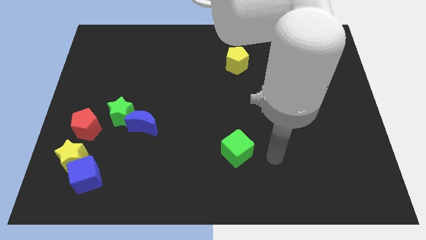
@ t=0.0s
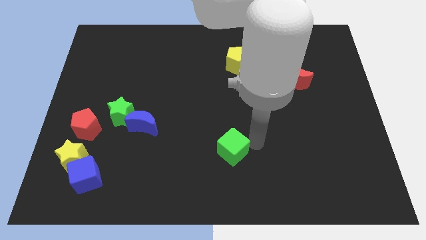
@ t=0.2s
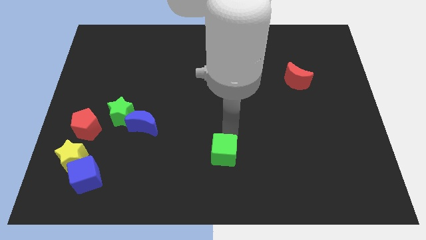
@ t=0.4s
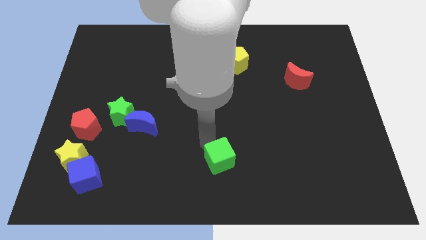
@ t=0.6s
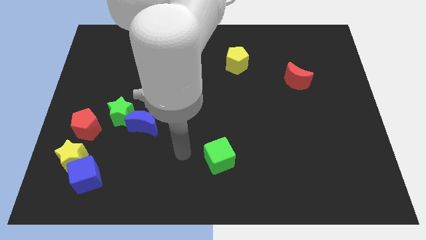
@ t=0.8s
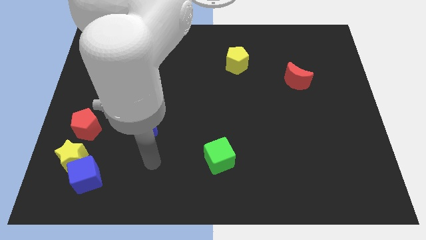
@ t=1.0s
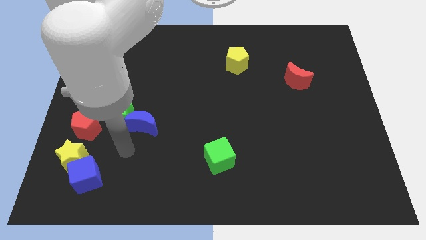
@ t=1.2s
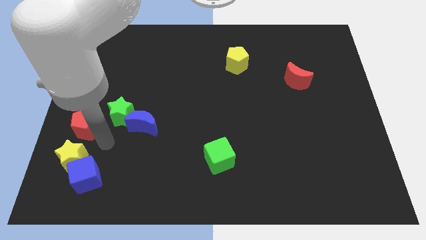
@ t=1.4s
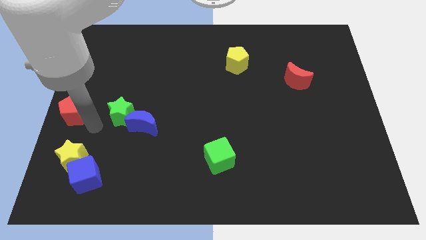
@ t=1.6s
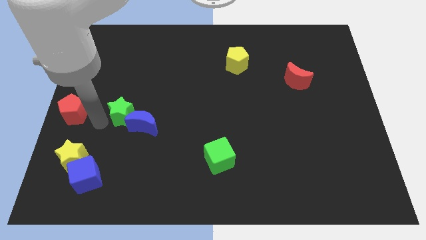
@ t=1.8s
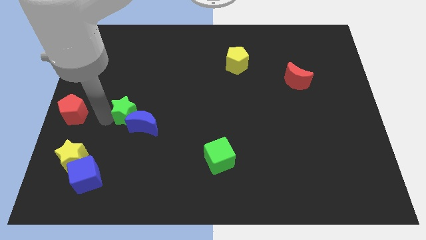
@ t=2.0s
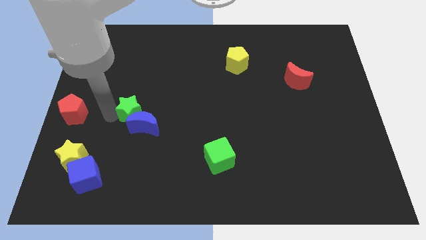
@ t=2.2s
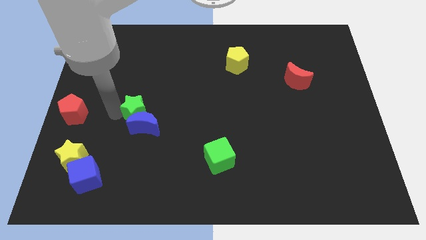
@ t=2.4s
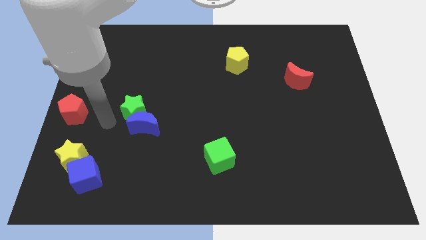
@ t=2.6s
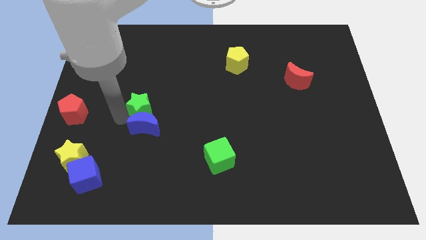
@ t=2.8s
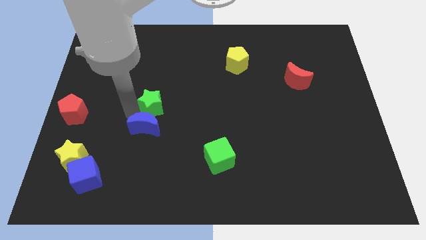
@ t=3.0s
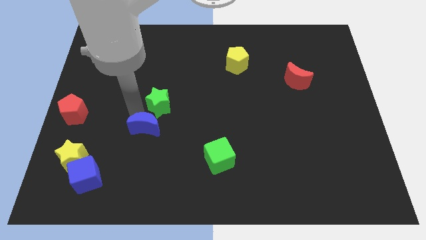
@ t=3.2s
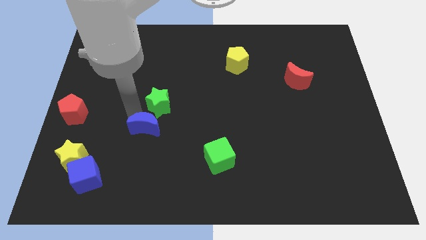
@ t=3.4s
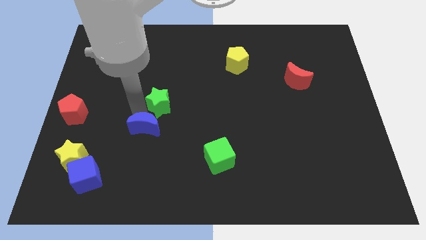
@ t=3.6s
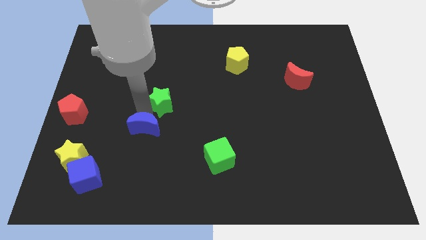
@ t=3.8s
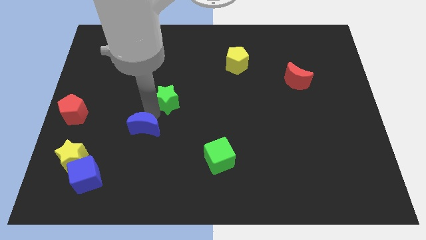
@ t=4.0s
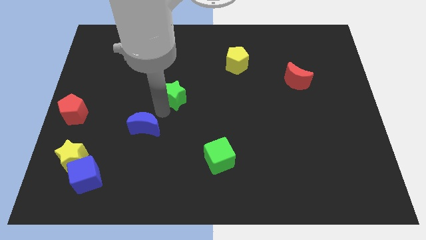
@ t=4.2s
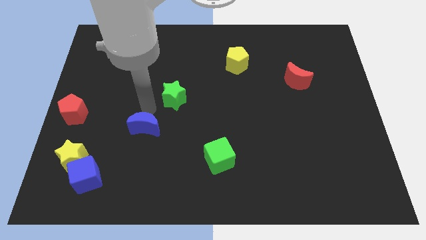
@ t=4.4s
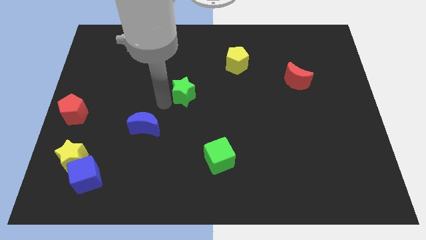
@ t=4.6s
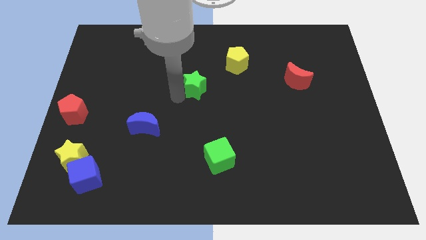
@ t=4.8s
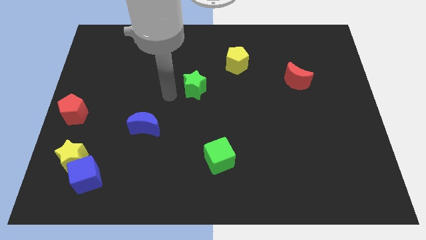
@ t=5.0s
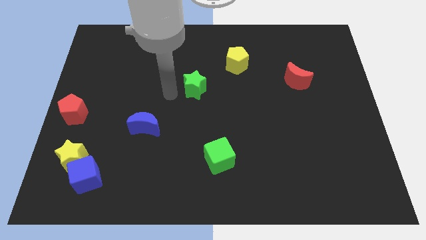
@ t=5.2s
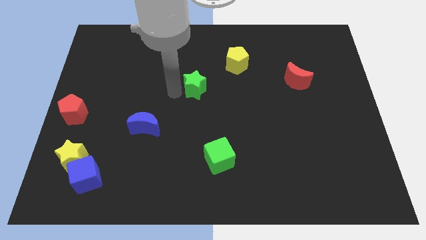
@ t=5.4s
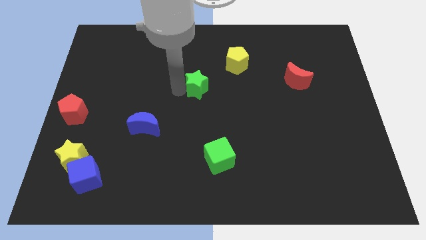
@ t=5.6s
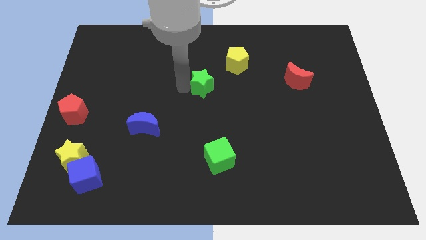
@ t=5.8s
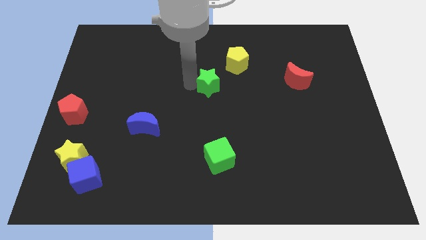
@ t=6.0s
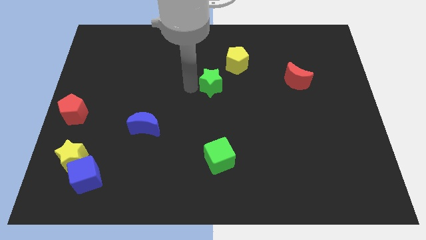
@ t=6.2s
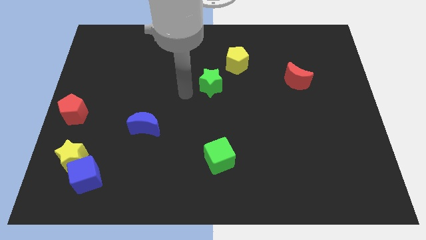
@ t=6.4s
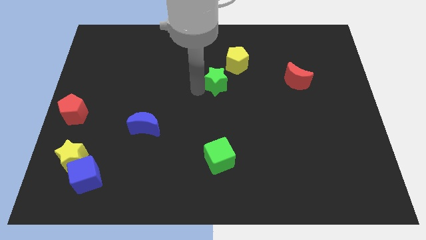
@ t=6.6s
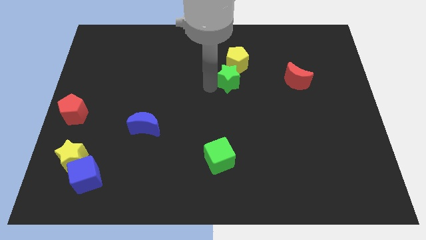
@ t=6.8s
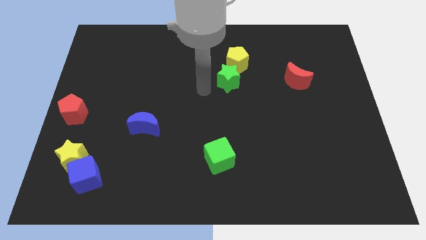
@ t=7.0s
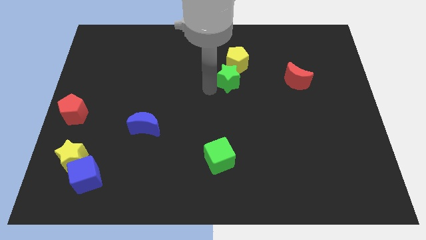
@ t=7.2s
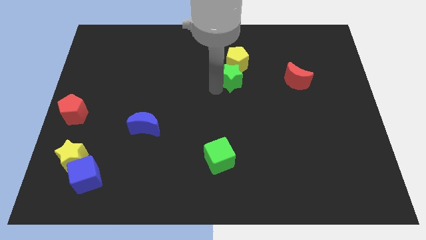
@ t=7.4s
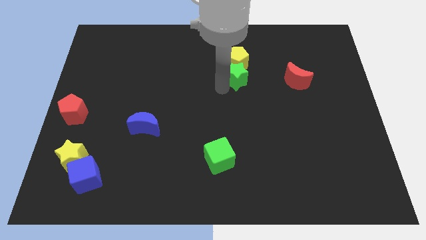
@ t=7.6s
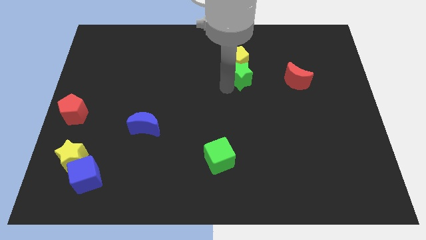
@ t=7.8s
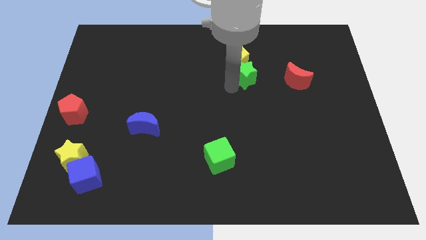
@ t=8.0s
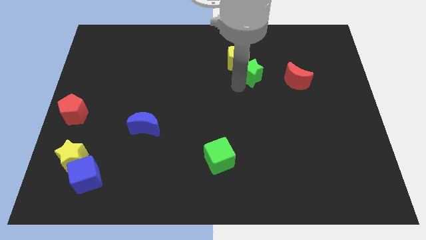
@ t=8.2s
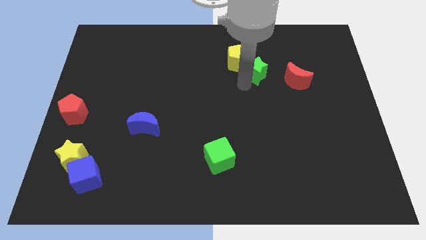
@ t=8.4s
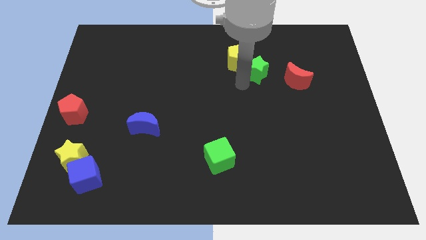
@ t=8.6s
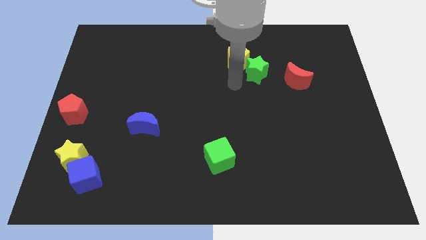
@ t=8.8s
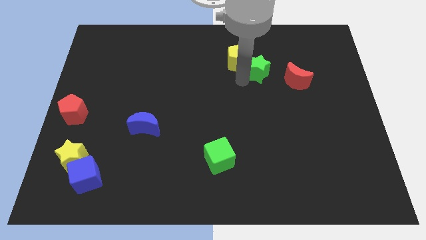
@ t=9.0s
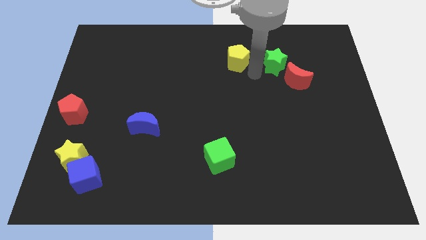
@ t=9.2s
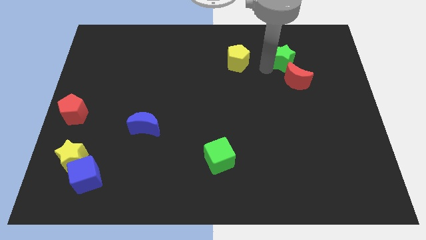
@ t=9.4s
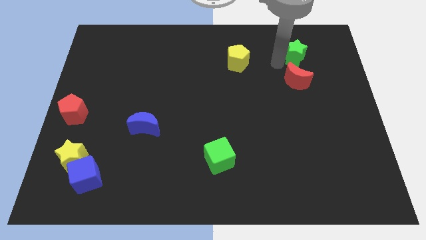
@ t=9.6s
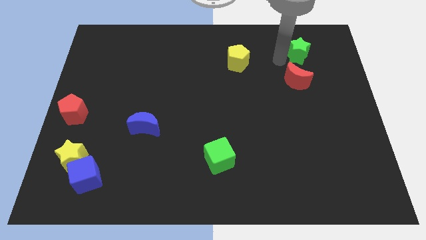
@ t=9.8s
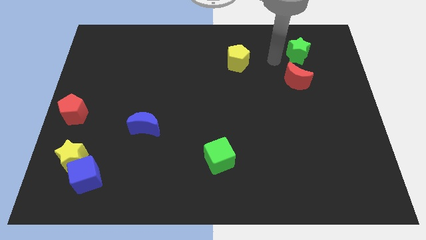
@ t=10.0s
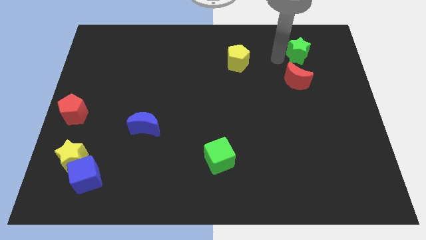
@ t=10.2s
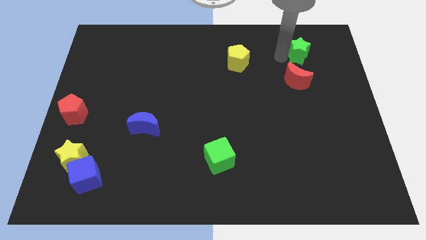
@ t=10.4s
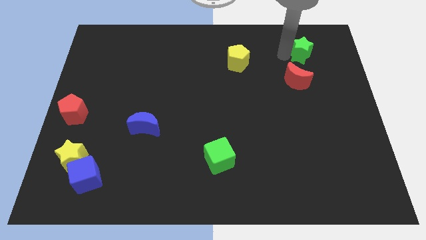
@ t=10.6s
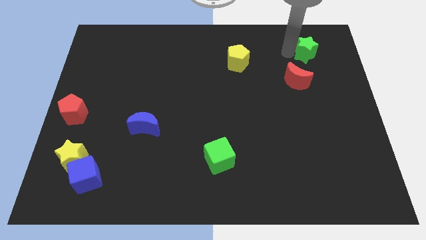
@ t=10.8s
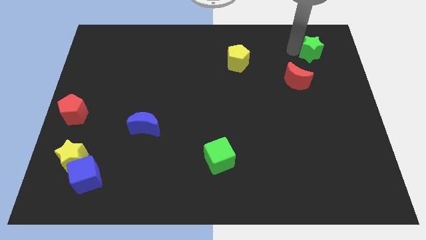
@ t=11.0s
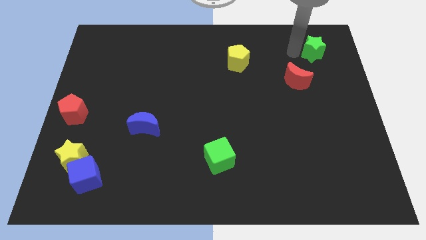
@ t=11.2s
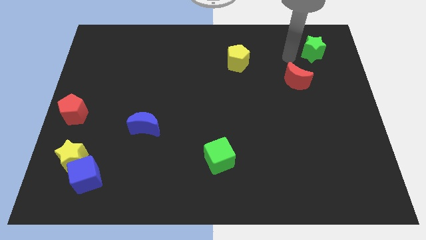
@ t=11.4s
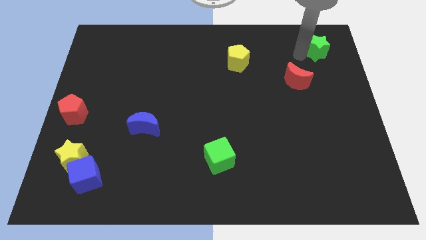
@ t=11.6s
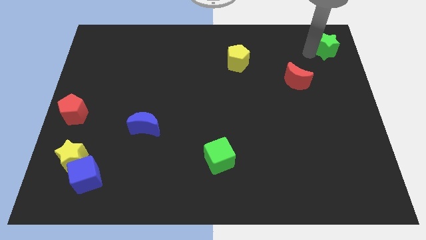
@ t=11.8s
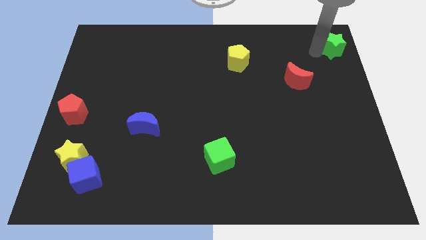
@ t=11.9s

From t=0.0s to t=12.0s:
move the green star to the top right

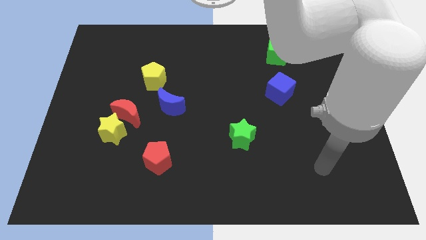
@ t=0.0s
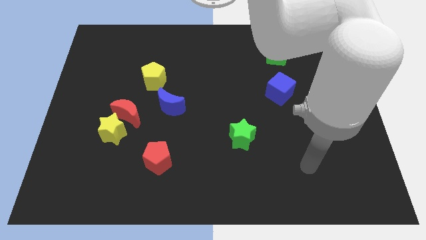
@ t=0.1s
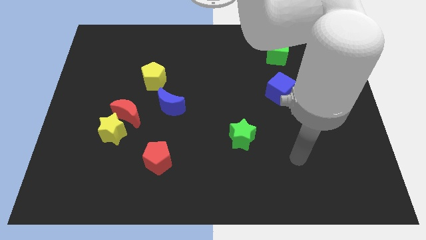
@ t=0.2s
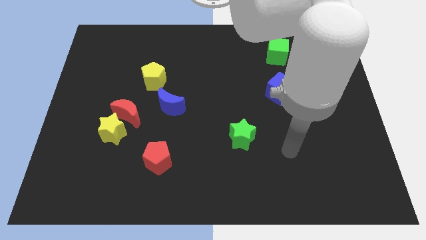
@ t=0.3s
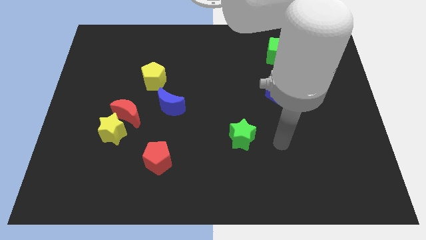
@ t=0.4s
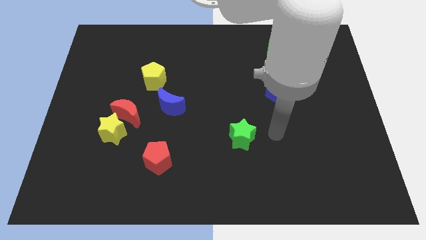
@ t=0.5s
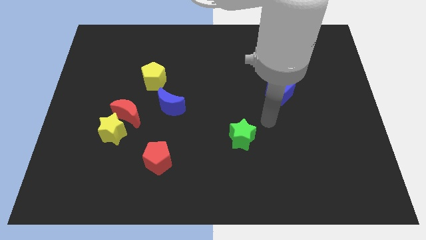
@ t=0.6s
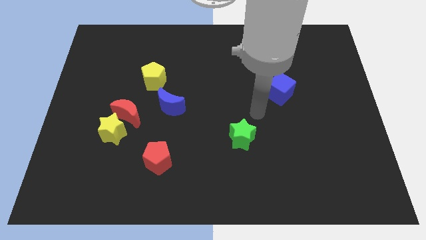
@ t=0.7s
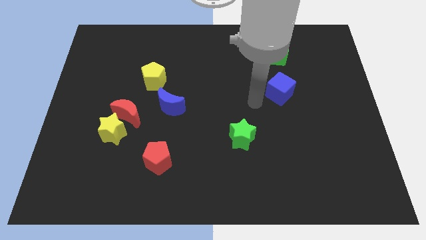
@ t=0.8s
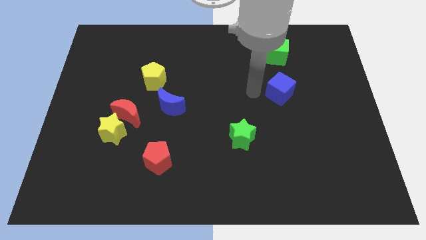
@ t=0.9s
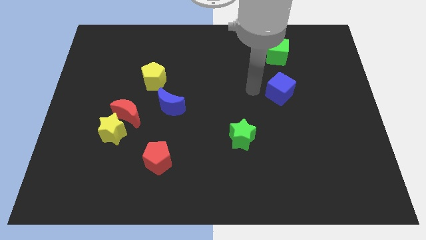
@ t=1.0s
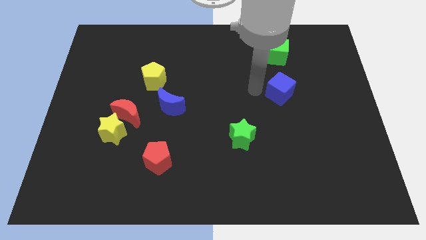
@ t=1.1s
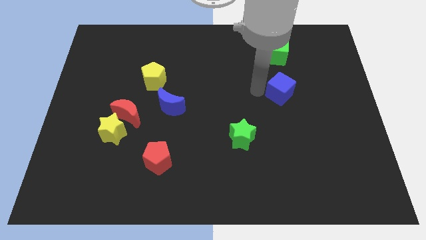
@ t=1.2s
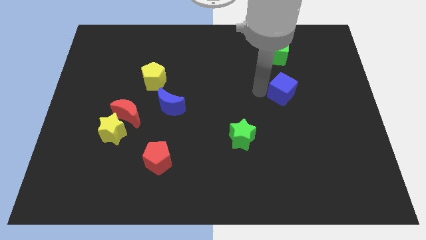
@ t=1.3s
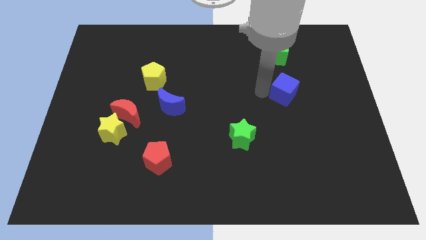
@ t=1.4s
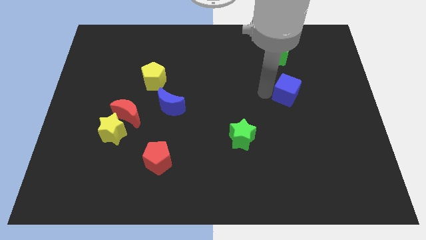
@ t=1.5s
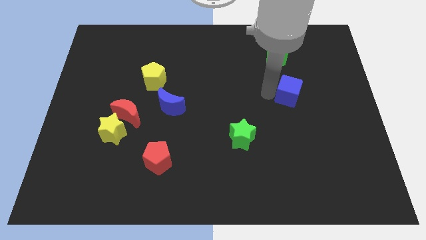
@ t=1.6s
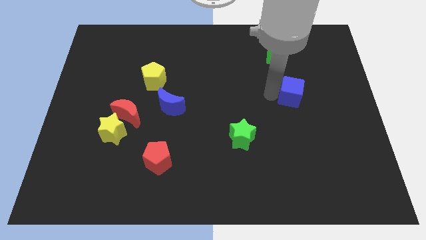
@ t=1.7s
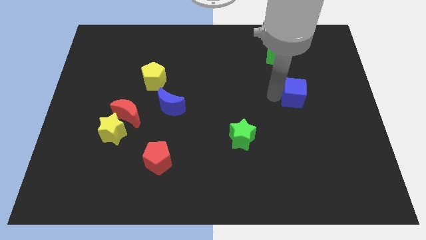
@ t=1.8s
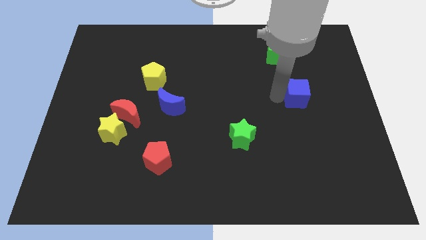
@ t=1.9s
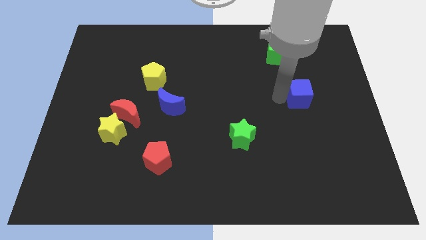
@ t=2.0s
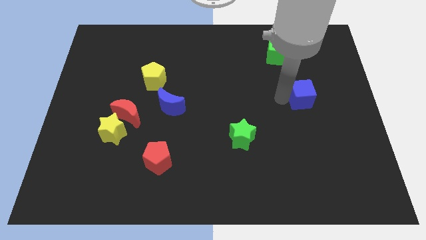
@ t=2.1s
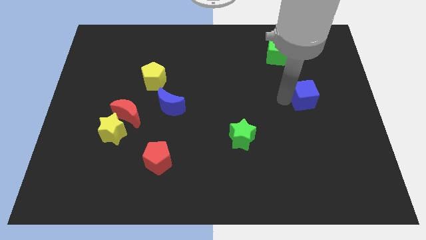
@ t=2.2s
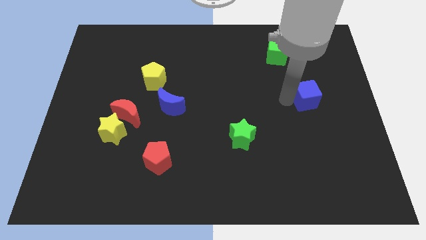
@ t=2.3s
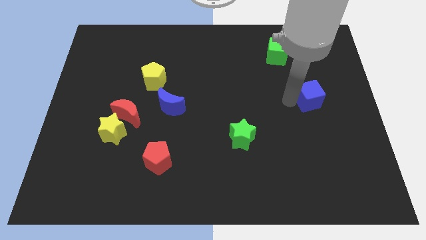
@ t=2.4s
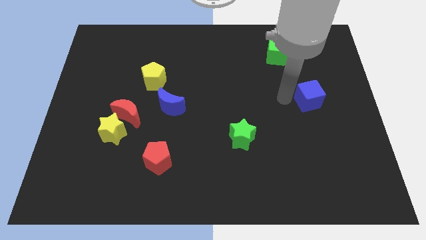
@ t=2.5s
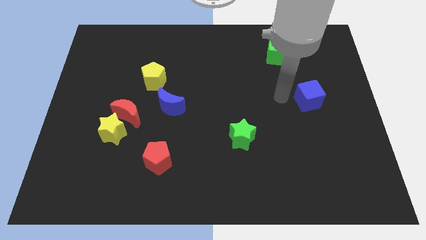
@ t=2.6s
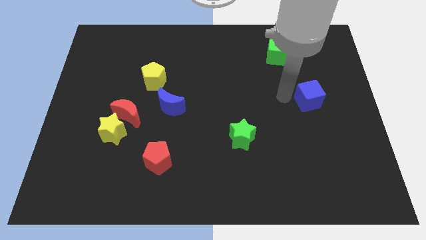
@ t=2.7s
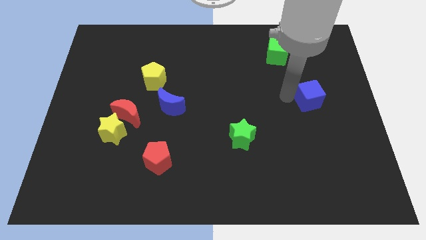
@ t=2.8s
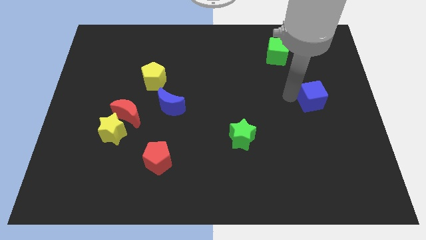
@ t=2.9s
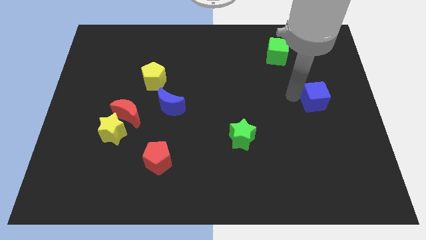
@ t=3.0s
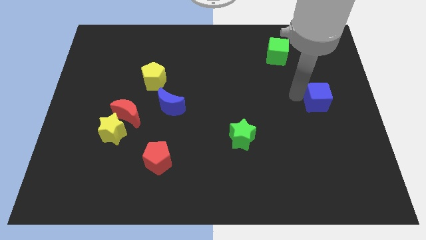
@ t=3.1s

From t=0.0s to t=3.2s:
push the blue cube to the right side
